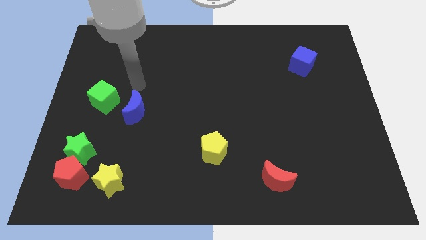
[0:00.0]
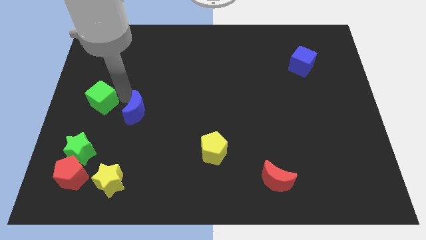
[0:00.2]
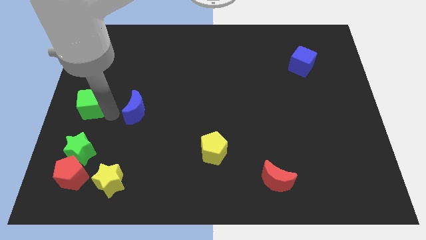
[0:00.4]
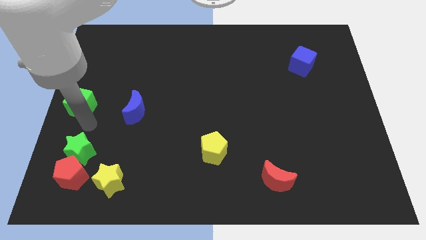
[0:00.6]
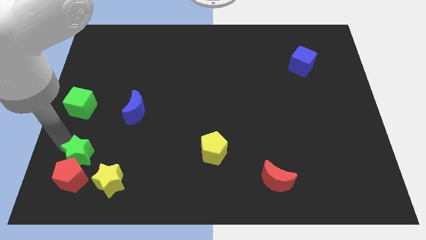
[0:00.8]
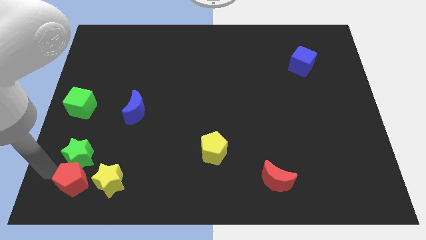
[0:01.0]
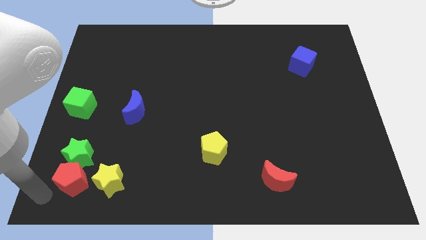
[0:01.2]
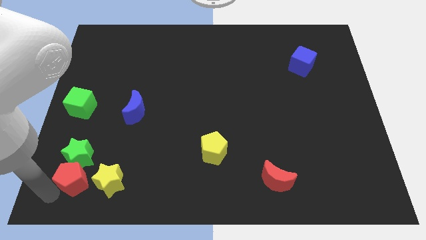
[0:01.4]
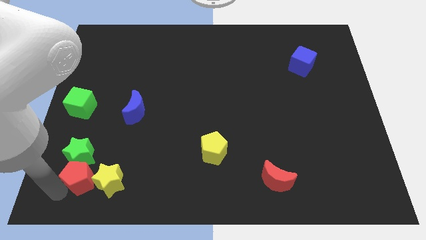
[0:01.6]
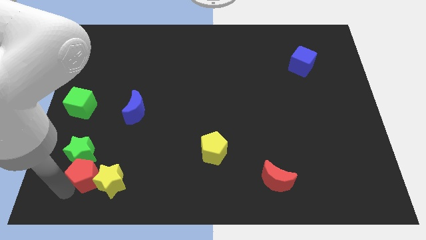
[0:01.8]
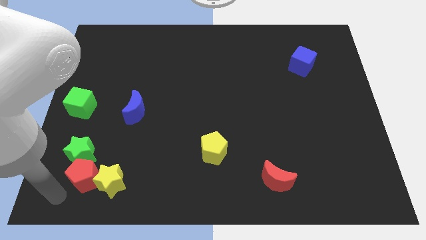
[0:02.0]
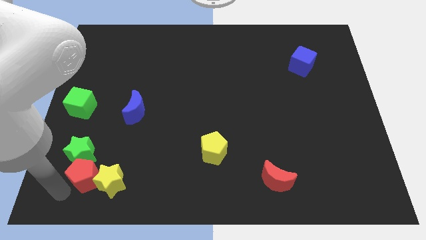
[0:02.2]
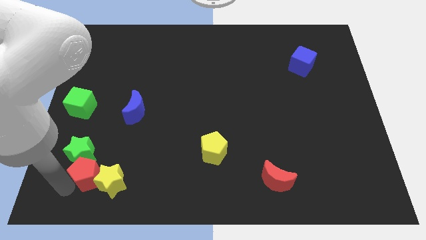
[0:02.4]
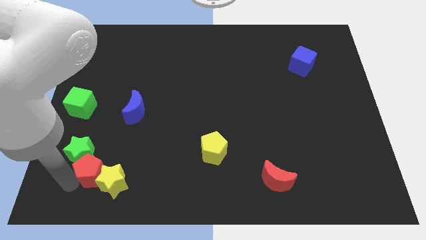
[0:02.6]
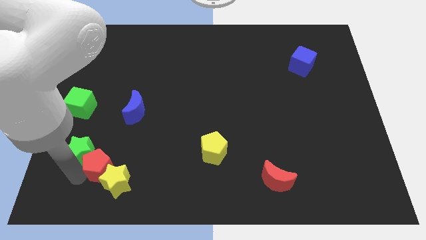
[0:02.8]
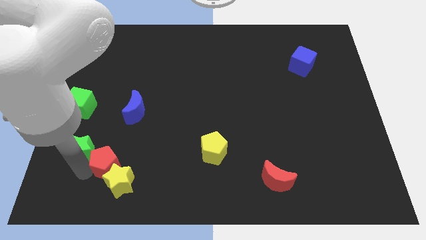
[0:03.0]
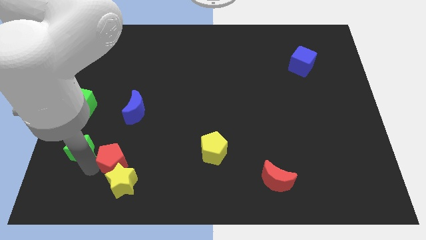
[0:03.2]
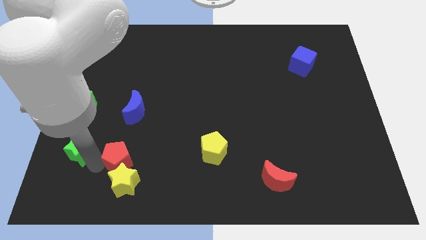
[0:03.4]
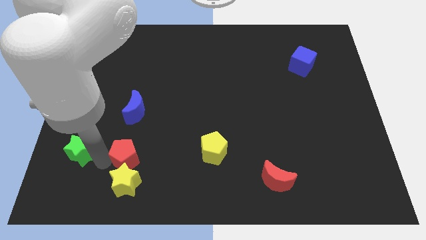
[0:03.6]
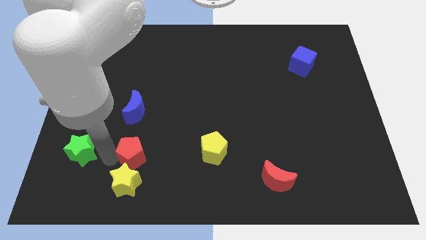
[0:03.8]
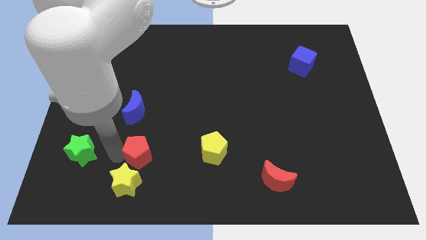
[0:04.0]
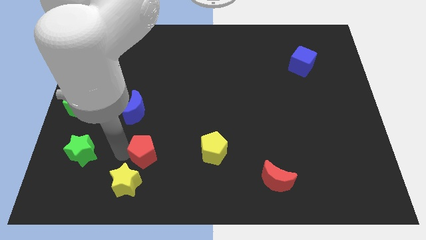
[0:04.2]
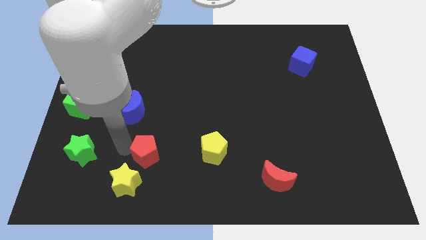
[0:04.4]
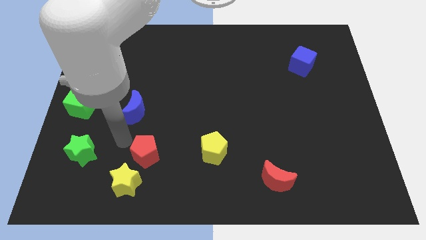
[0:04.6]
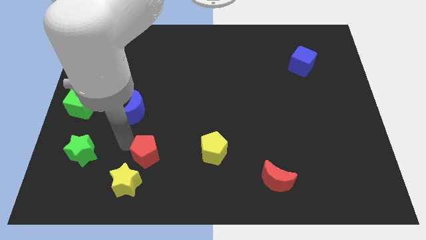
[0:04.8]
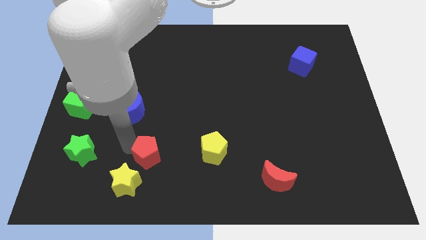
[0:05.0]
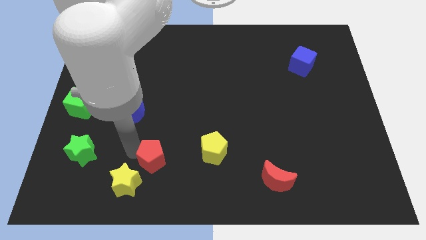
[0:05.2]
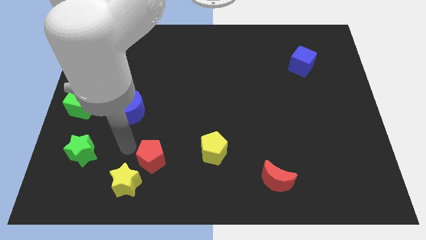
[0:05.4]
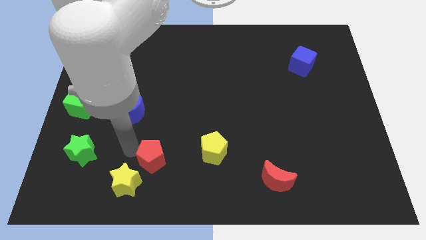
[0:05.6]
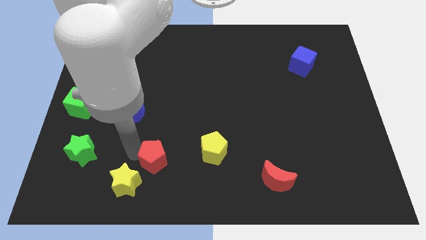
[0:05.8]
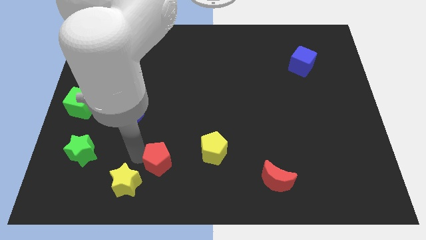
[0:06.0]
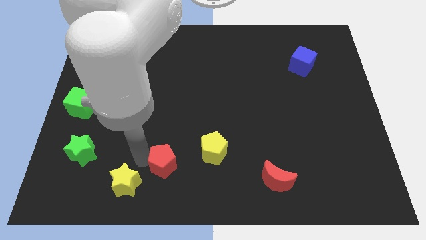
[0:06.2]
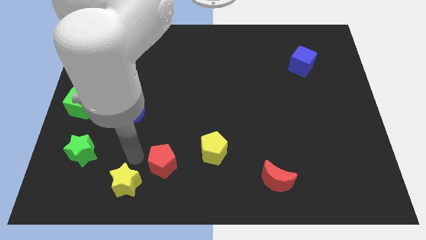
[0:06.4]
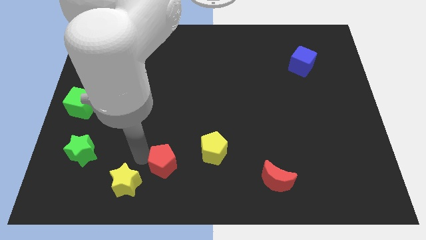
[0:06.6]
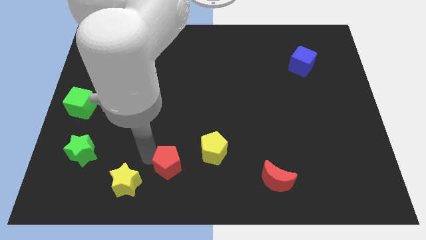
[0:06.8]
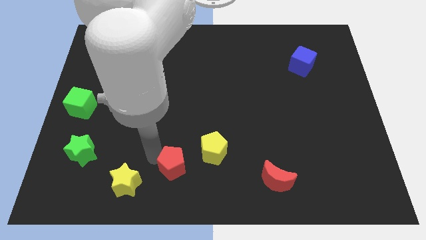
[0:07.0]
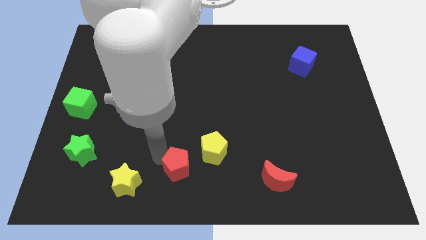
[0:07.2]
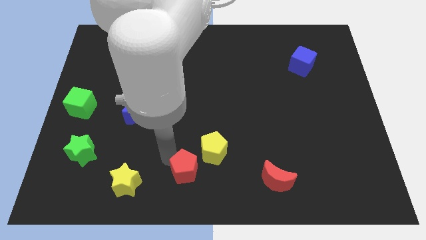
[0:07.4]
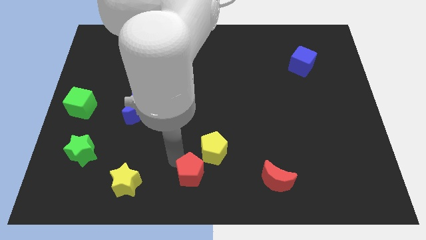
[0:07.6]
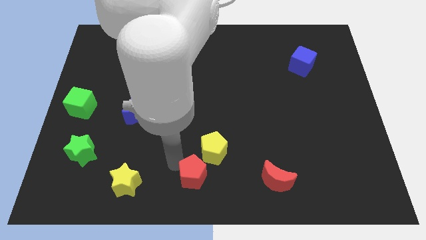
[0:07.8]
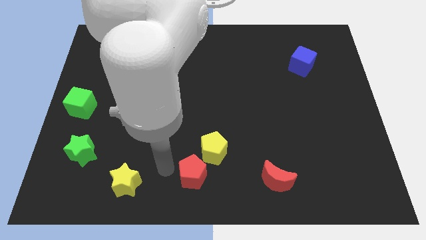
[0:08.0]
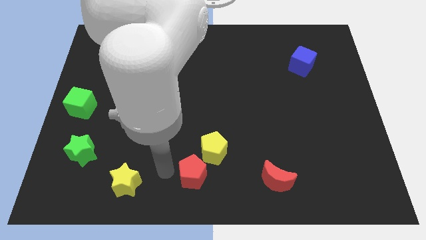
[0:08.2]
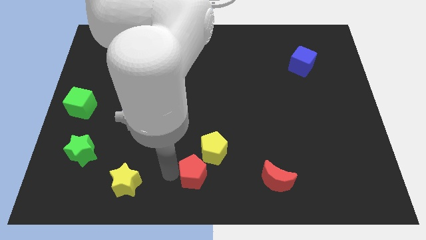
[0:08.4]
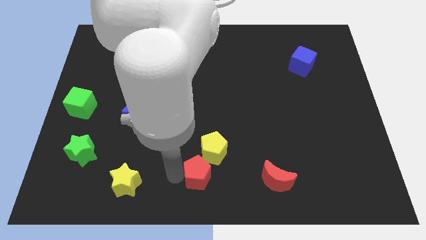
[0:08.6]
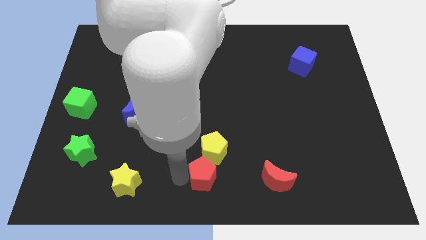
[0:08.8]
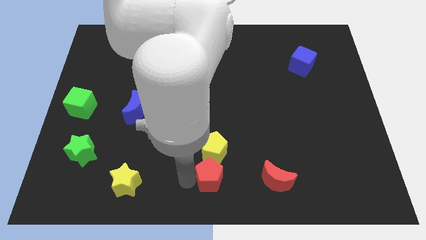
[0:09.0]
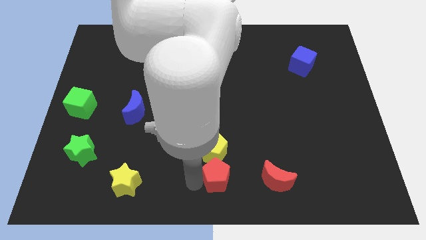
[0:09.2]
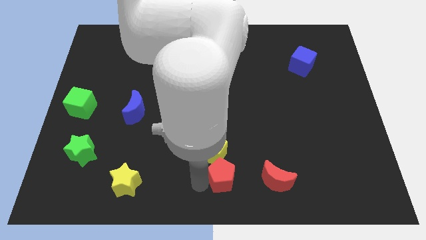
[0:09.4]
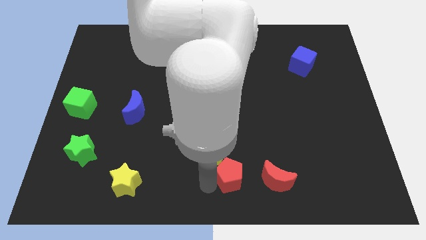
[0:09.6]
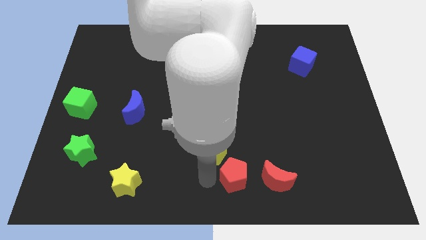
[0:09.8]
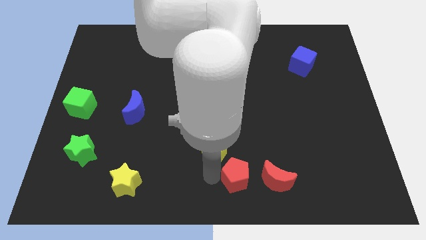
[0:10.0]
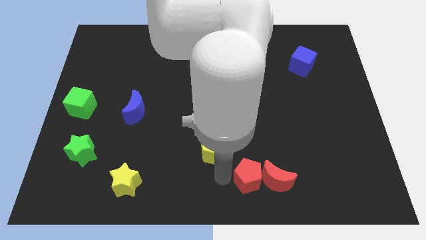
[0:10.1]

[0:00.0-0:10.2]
push the red pentagon towards the red moon

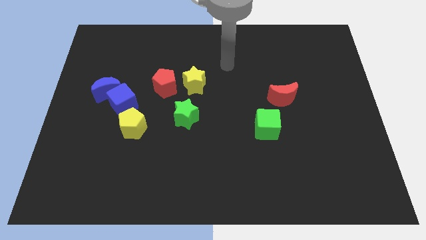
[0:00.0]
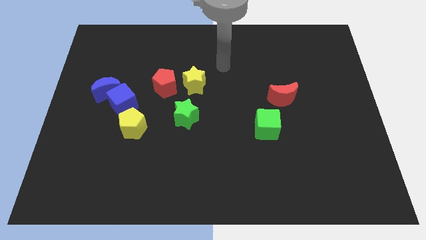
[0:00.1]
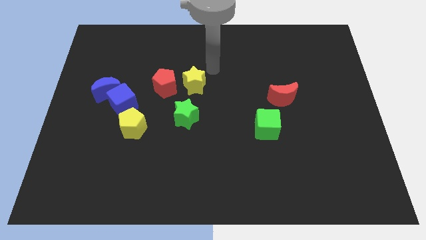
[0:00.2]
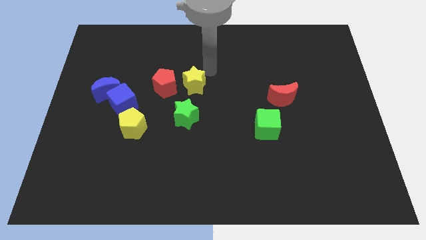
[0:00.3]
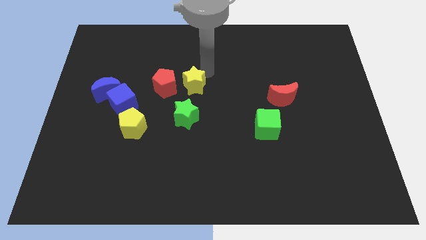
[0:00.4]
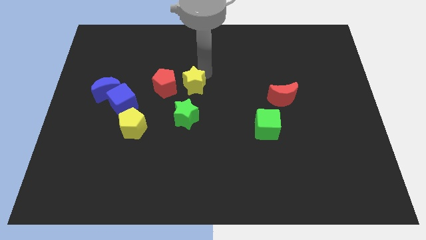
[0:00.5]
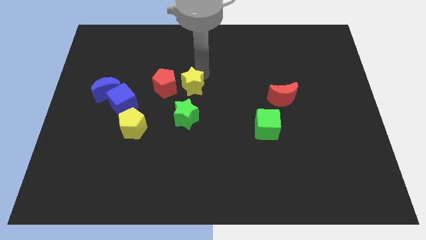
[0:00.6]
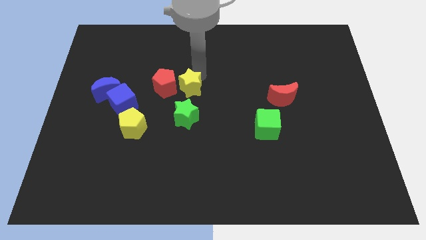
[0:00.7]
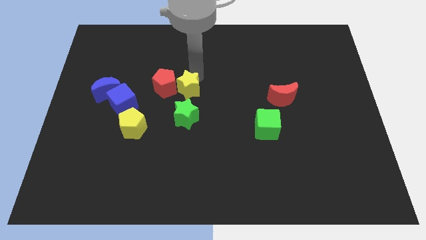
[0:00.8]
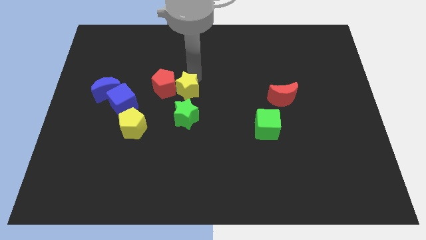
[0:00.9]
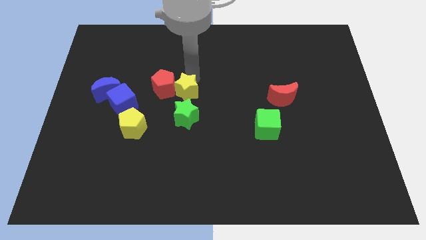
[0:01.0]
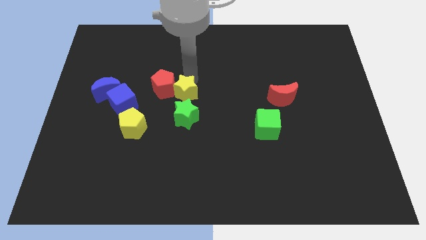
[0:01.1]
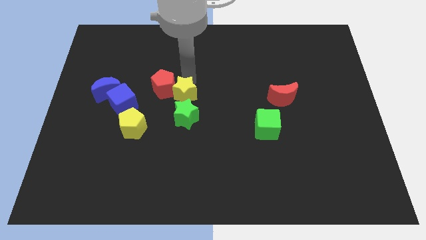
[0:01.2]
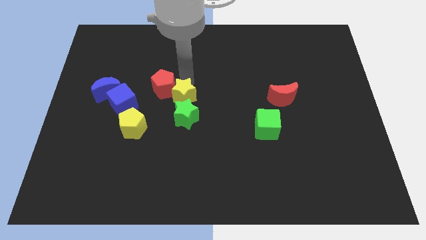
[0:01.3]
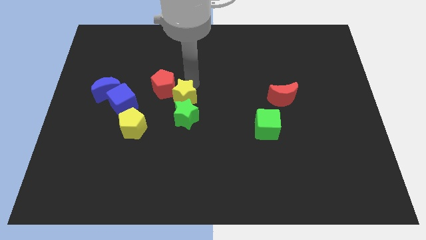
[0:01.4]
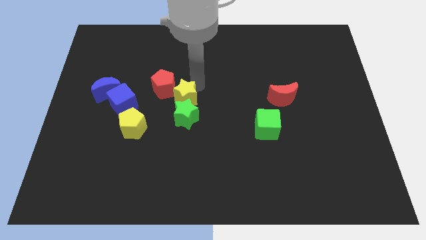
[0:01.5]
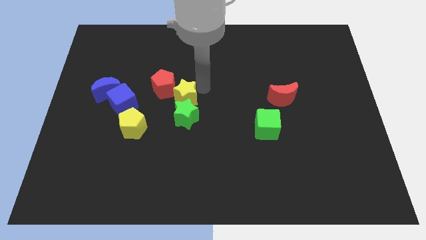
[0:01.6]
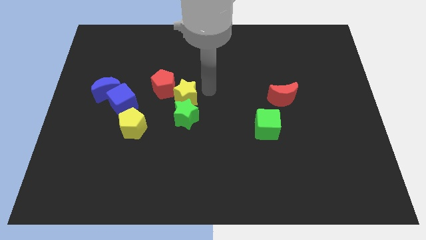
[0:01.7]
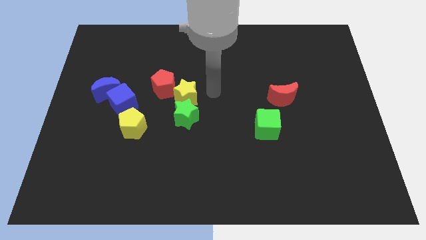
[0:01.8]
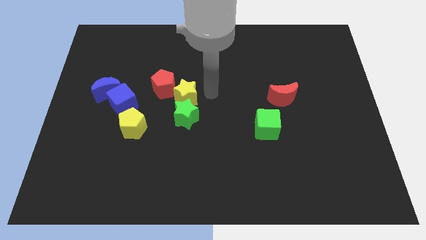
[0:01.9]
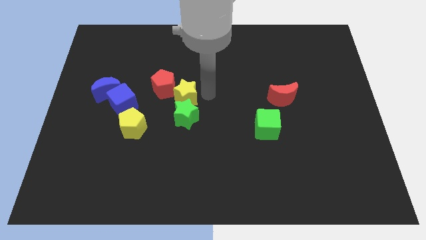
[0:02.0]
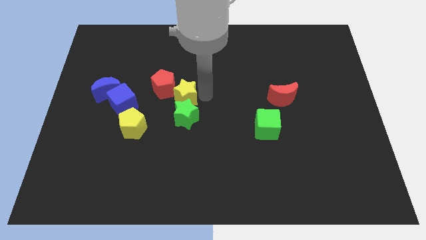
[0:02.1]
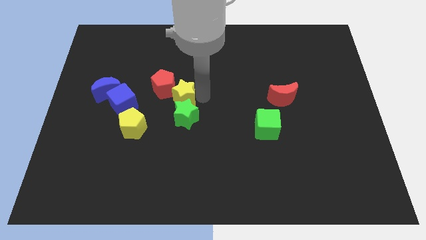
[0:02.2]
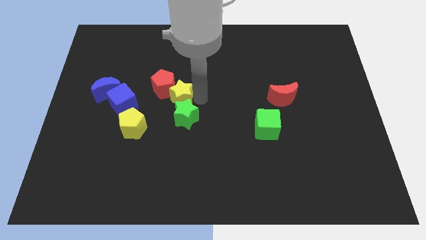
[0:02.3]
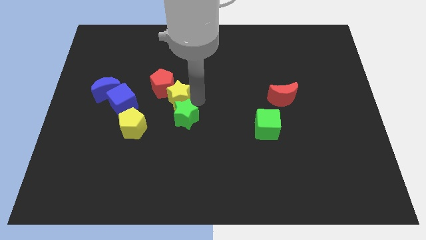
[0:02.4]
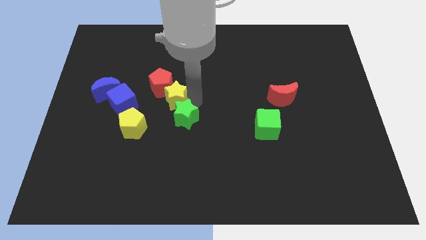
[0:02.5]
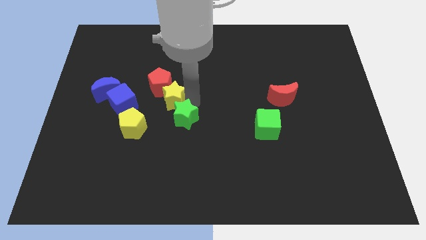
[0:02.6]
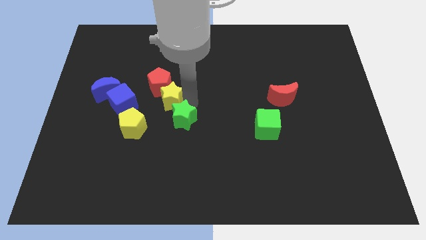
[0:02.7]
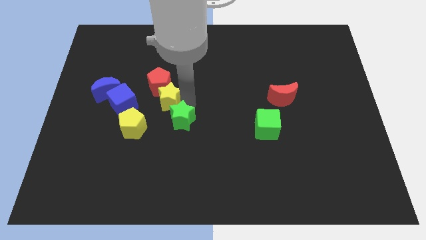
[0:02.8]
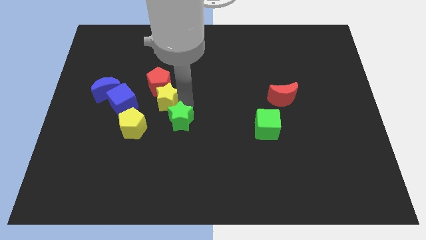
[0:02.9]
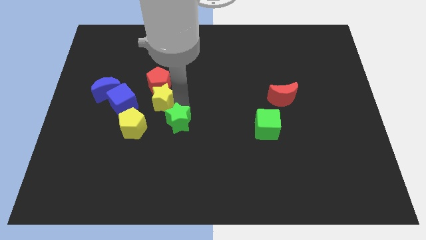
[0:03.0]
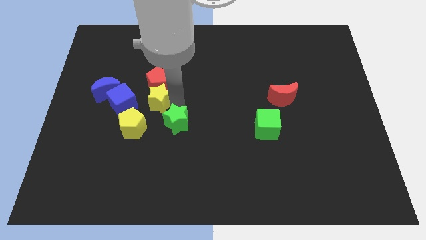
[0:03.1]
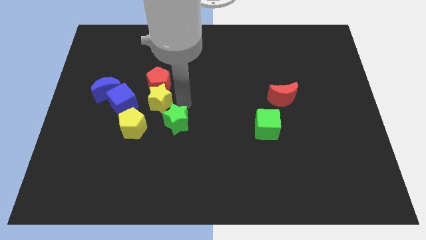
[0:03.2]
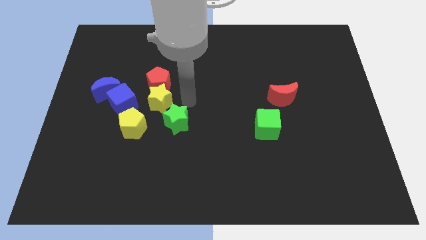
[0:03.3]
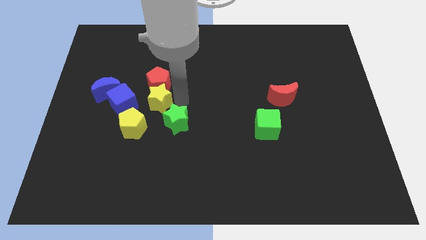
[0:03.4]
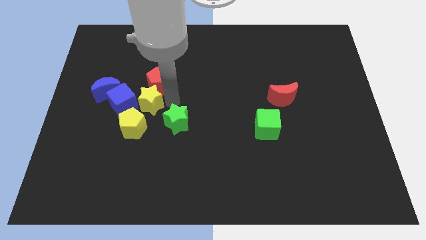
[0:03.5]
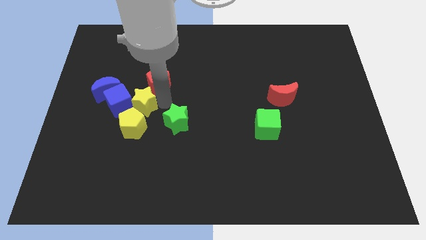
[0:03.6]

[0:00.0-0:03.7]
move the yellow star next to the blue cube
